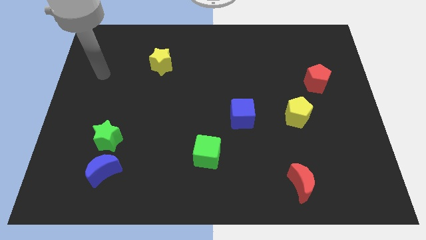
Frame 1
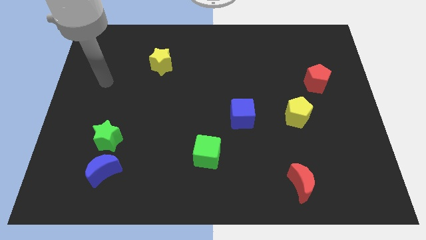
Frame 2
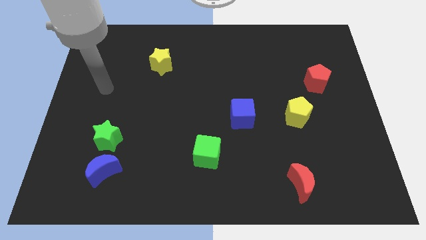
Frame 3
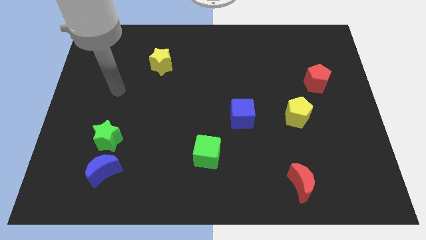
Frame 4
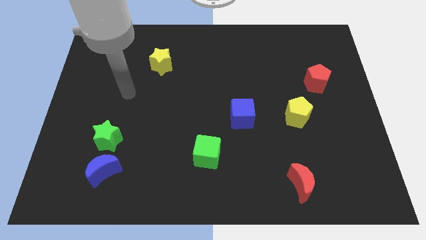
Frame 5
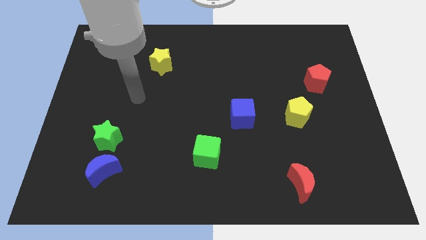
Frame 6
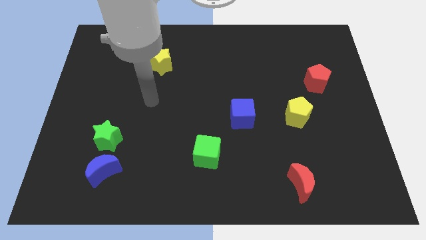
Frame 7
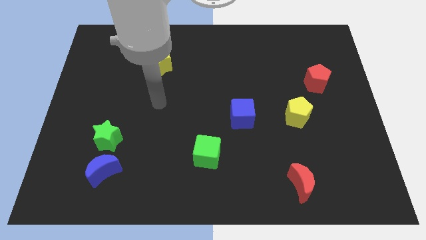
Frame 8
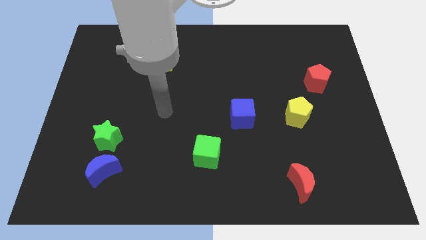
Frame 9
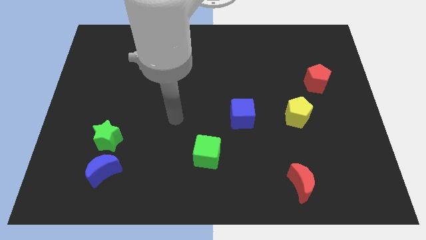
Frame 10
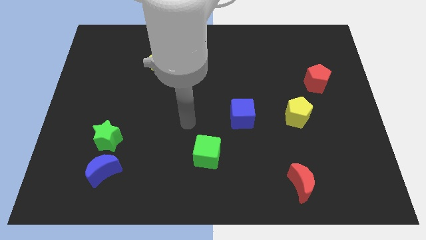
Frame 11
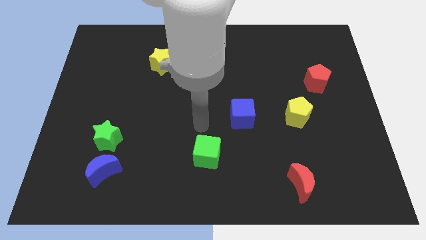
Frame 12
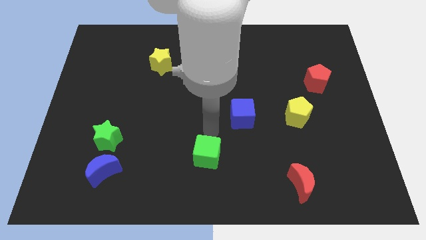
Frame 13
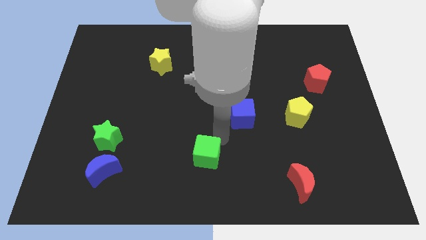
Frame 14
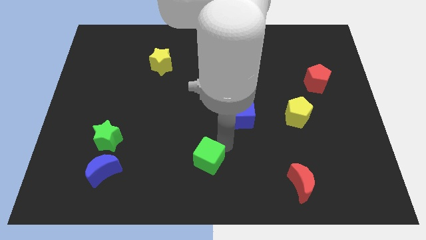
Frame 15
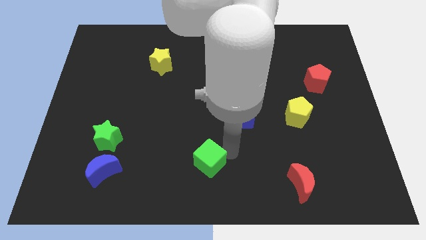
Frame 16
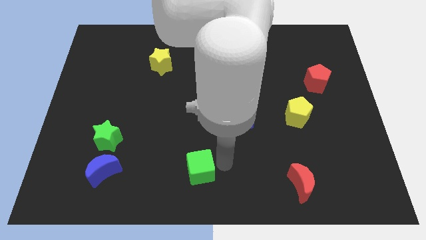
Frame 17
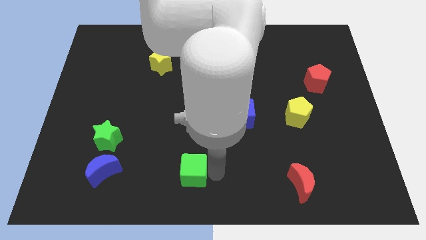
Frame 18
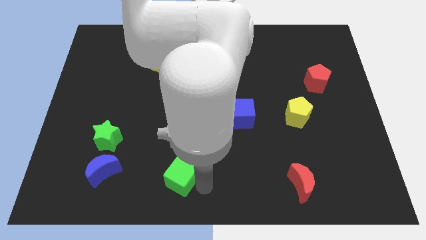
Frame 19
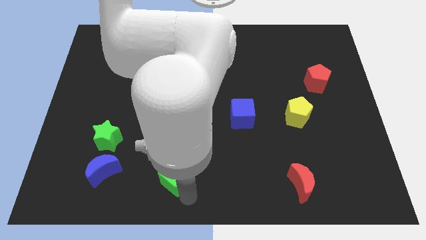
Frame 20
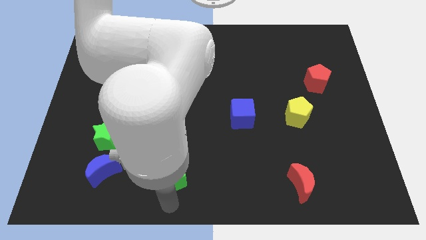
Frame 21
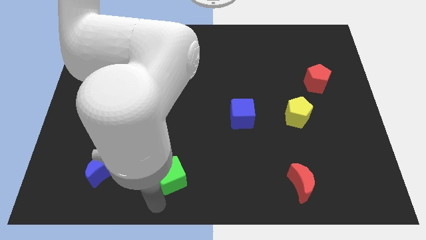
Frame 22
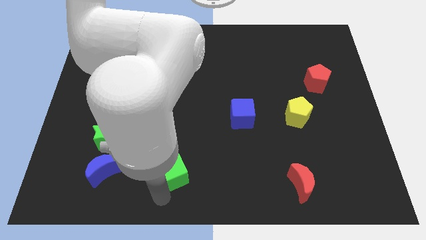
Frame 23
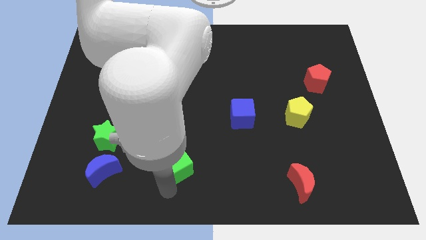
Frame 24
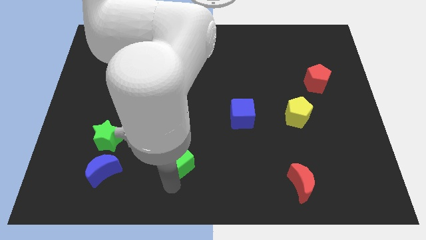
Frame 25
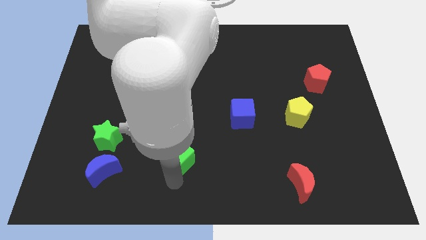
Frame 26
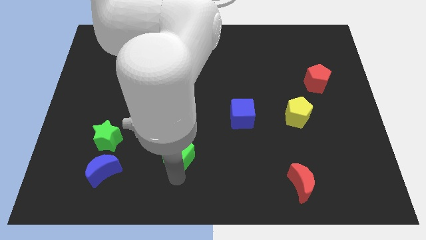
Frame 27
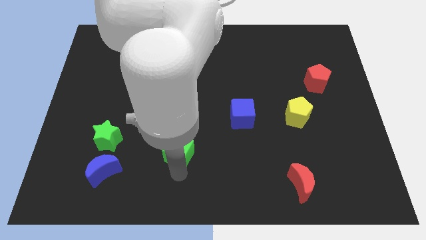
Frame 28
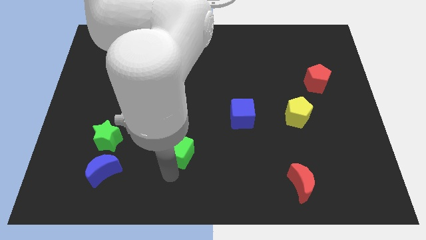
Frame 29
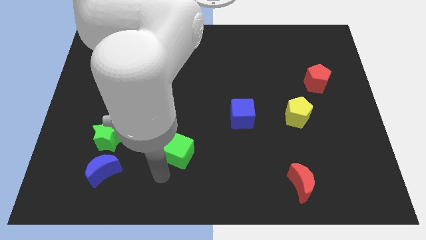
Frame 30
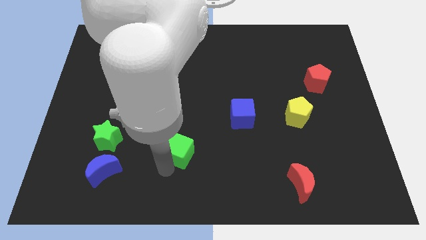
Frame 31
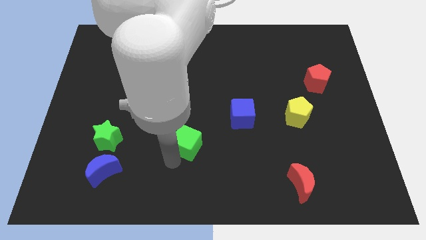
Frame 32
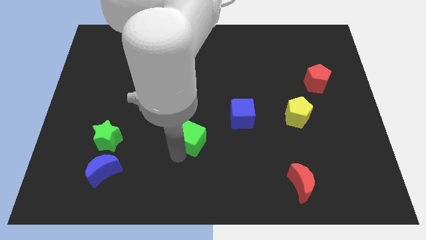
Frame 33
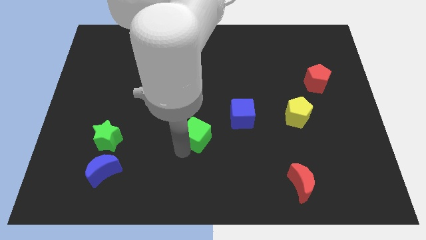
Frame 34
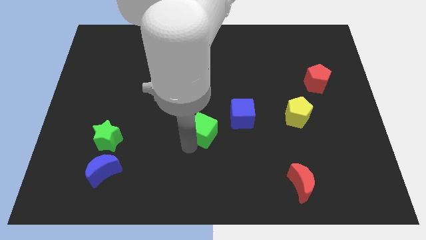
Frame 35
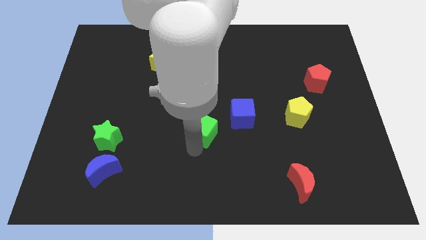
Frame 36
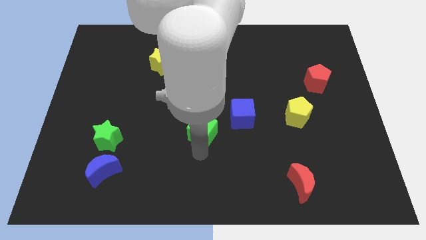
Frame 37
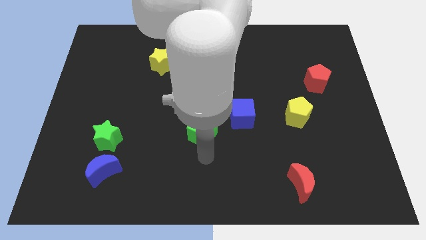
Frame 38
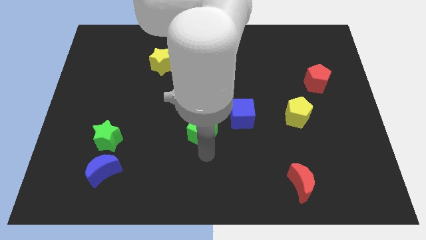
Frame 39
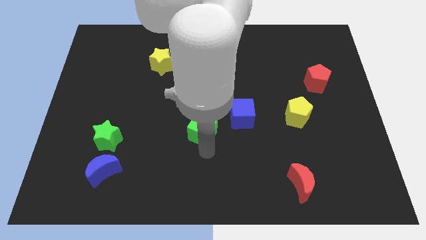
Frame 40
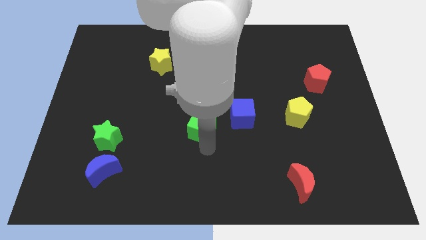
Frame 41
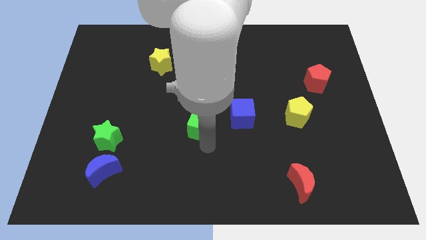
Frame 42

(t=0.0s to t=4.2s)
slide the green cube a little bit upwards

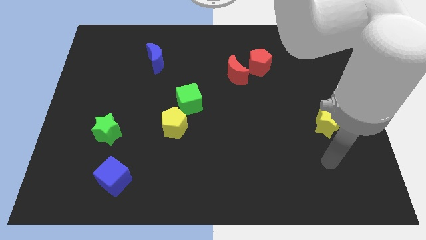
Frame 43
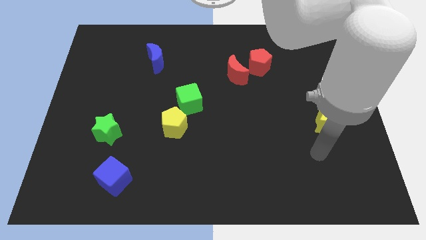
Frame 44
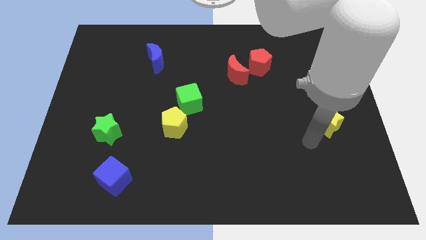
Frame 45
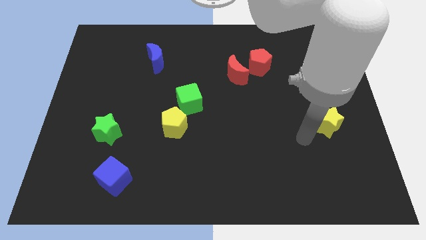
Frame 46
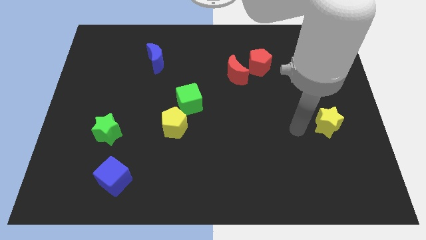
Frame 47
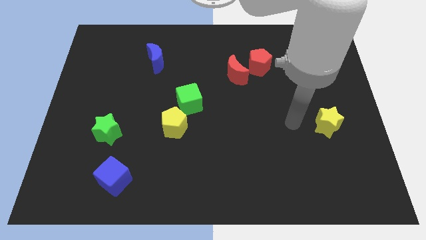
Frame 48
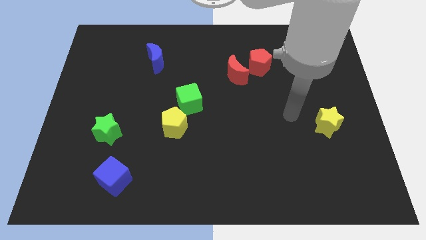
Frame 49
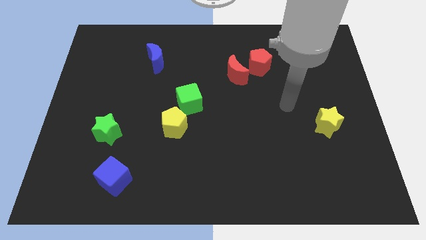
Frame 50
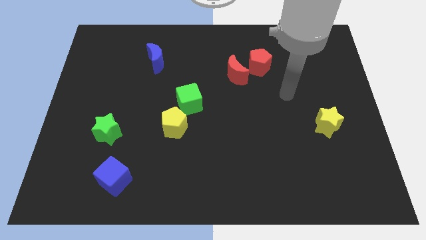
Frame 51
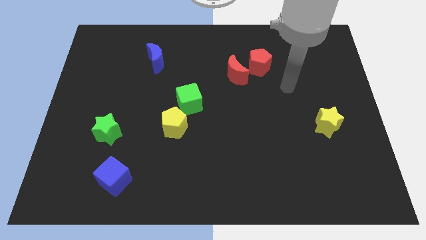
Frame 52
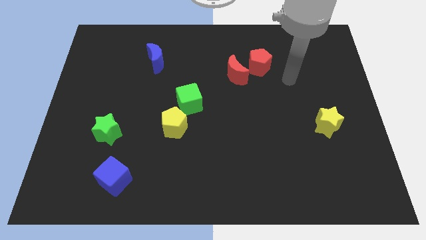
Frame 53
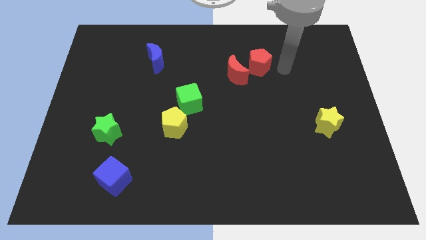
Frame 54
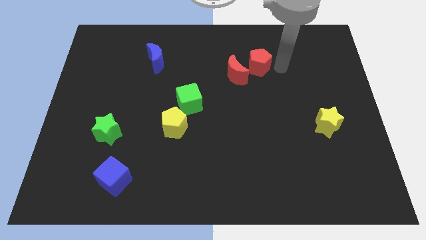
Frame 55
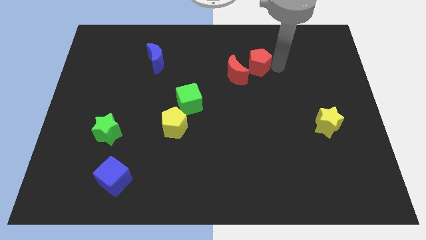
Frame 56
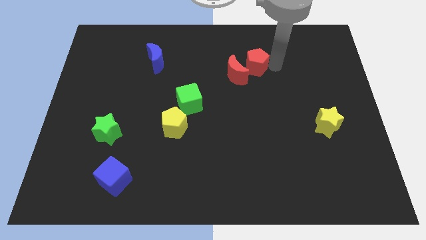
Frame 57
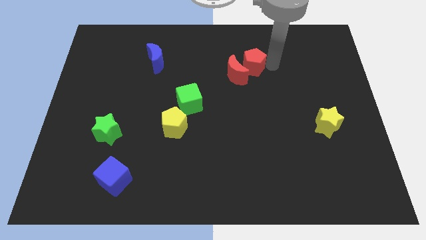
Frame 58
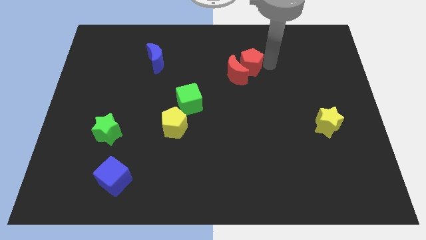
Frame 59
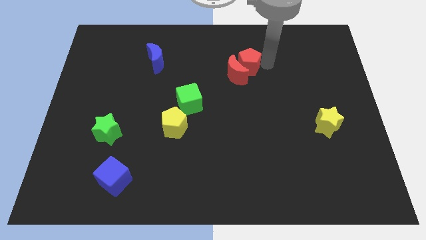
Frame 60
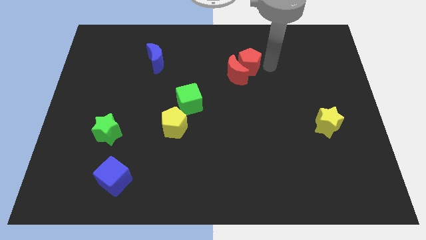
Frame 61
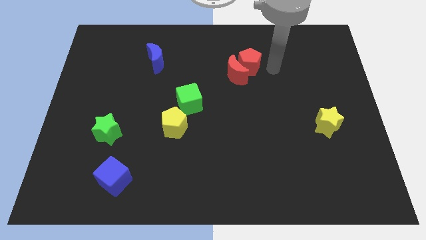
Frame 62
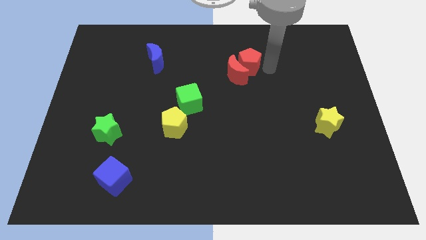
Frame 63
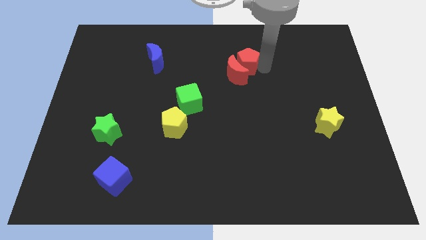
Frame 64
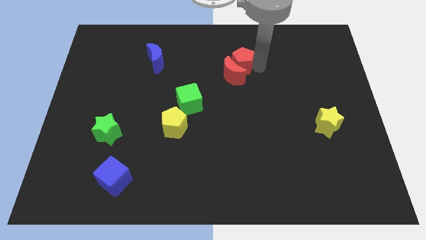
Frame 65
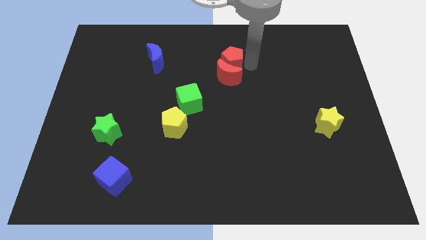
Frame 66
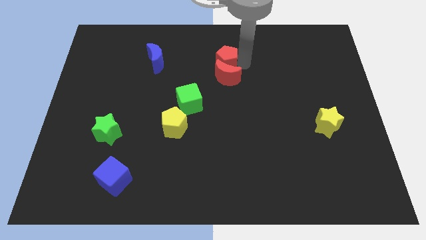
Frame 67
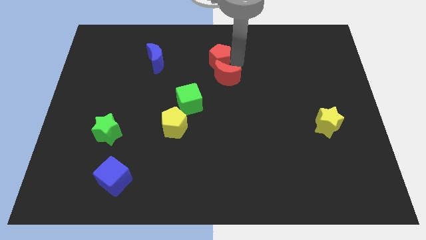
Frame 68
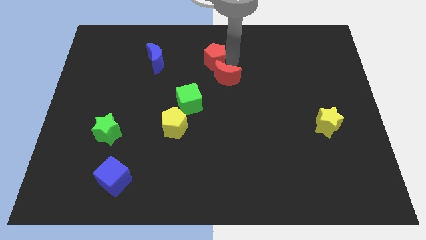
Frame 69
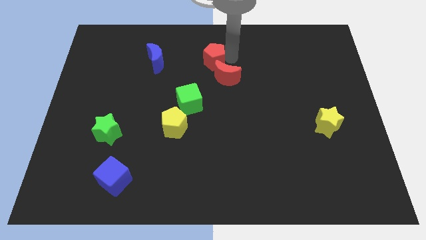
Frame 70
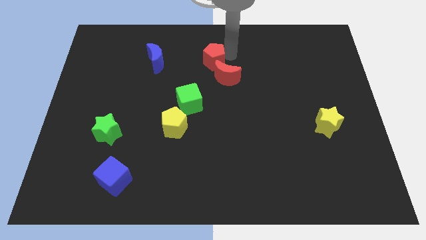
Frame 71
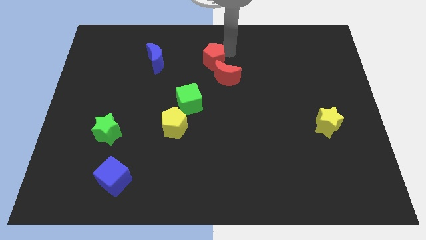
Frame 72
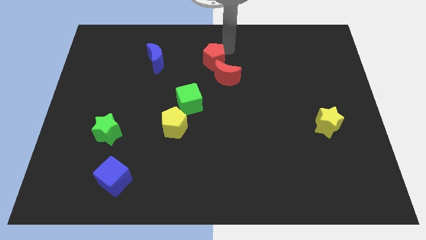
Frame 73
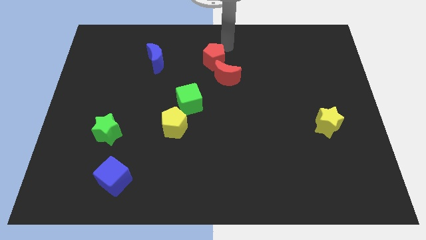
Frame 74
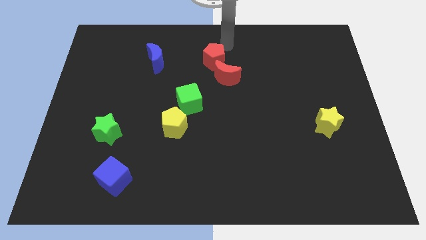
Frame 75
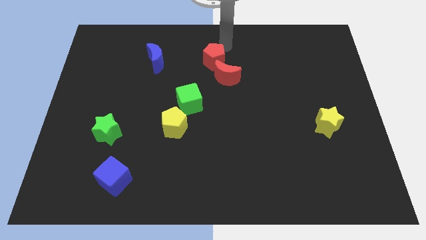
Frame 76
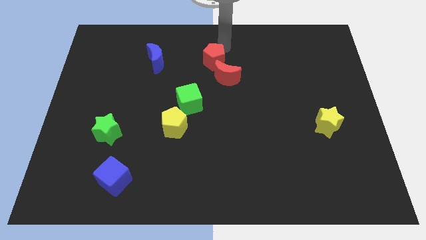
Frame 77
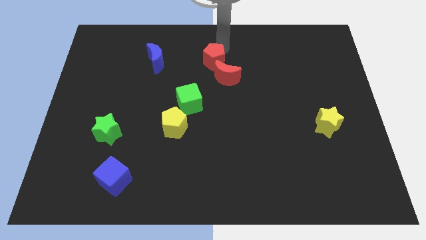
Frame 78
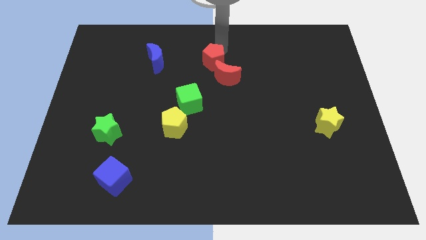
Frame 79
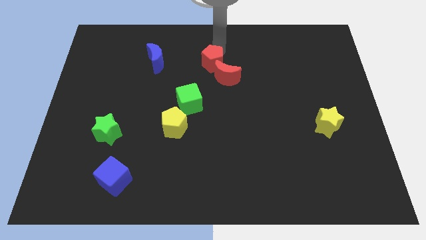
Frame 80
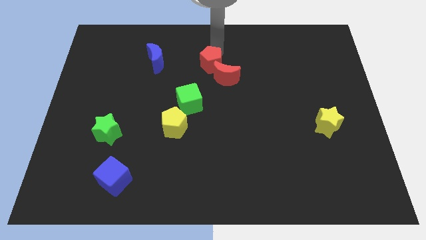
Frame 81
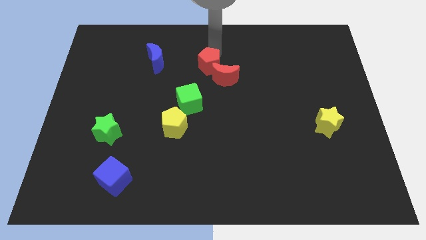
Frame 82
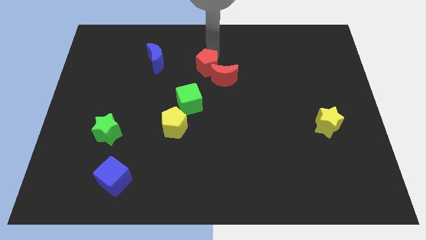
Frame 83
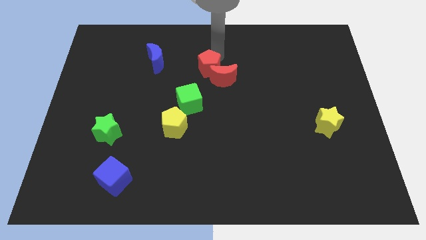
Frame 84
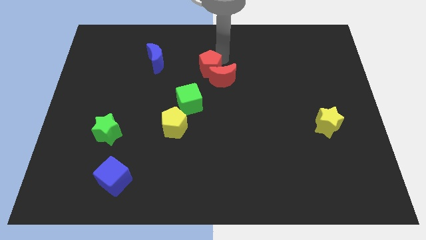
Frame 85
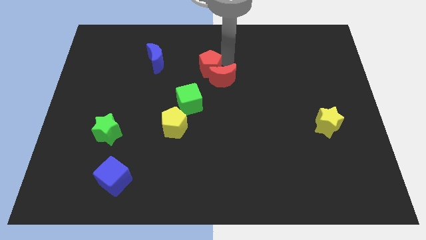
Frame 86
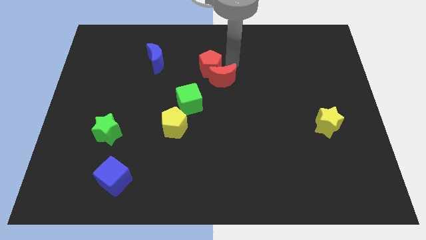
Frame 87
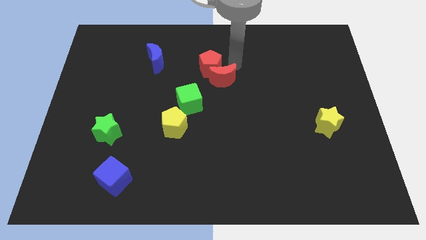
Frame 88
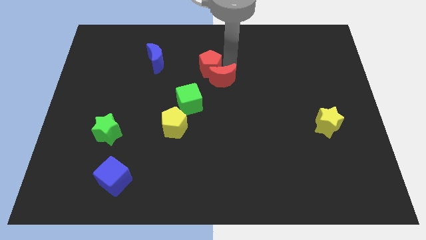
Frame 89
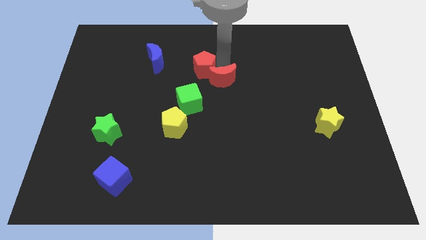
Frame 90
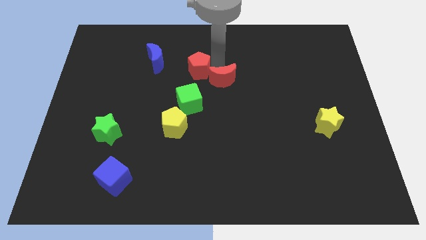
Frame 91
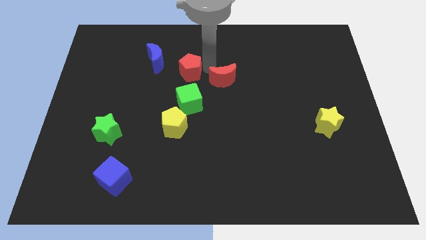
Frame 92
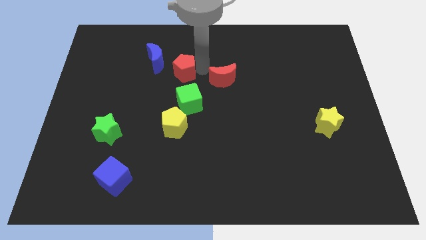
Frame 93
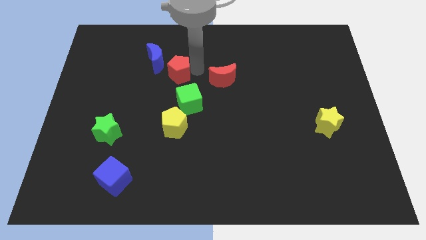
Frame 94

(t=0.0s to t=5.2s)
push the red pentagon left
